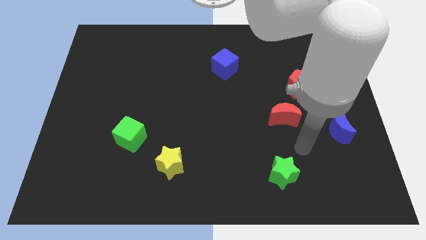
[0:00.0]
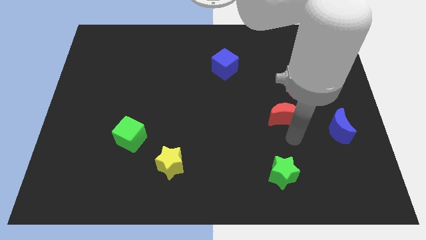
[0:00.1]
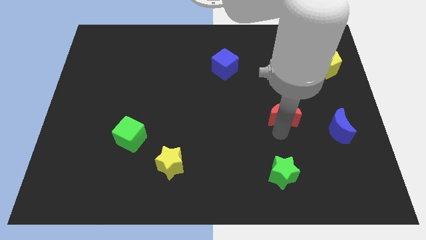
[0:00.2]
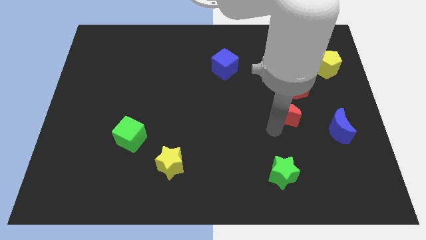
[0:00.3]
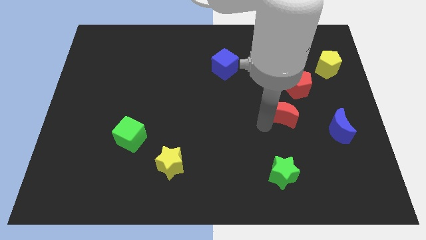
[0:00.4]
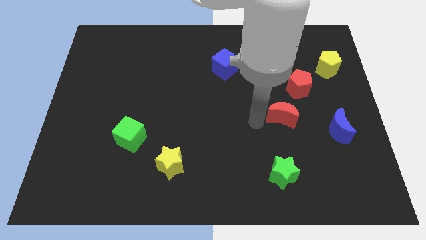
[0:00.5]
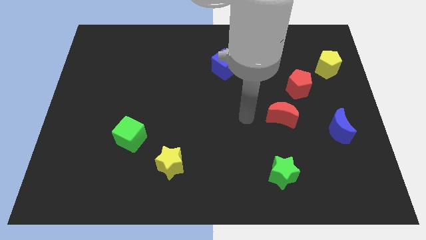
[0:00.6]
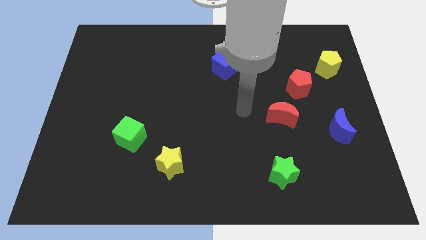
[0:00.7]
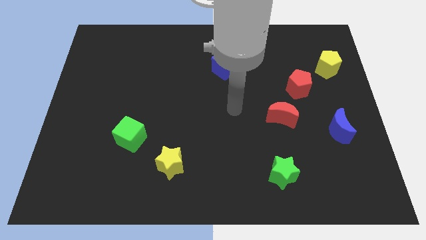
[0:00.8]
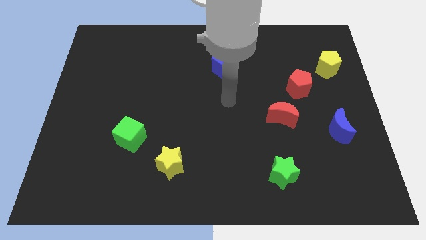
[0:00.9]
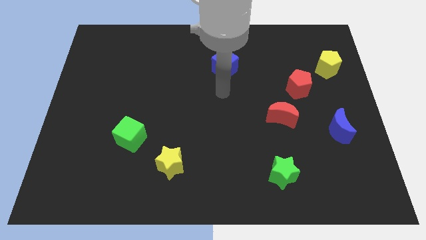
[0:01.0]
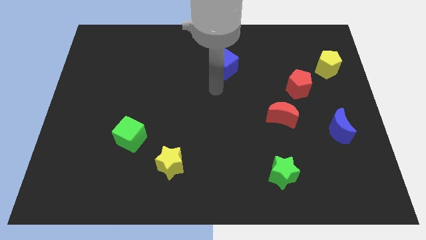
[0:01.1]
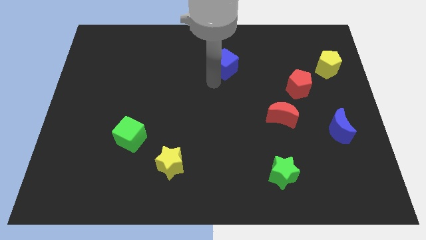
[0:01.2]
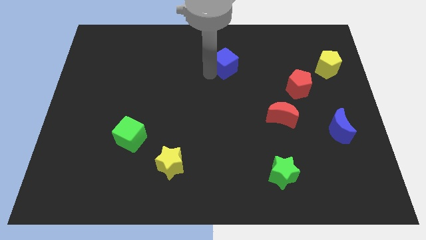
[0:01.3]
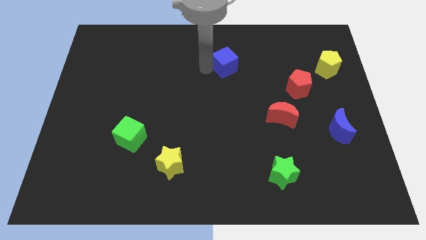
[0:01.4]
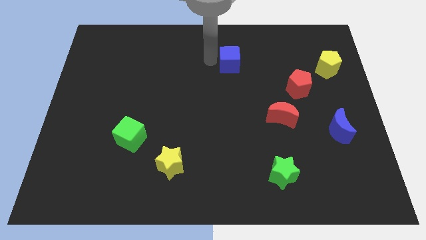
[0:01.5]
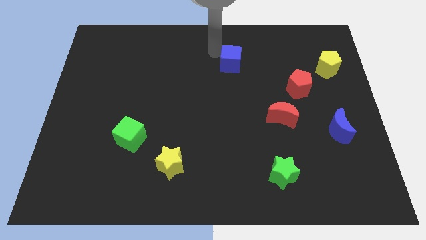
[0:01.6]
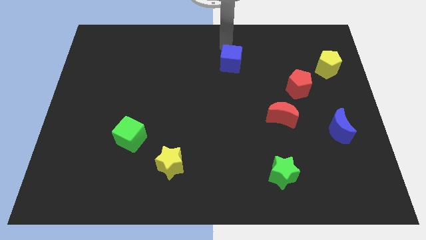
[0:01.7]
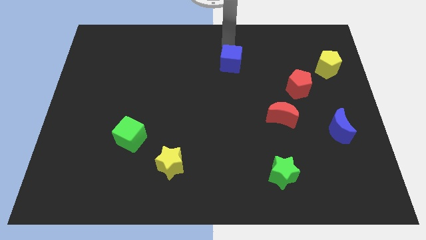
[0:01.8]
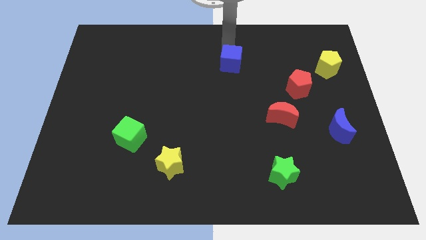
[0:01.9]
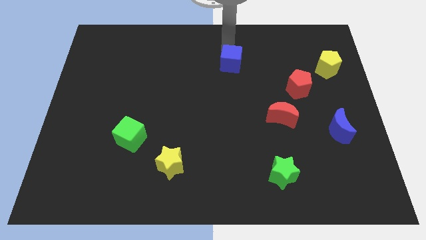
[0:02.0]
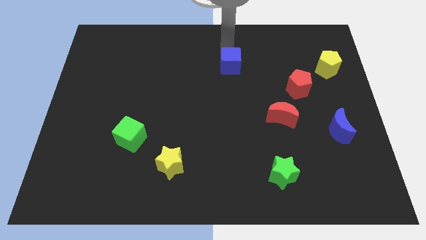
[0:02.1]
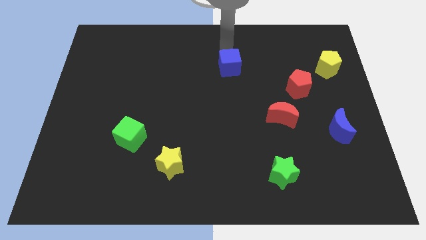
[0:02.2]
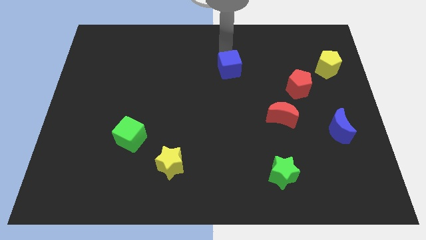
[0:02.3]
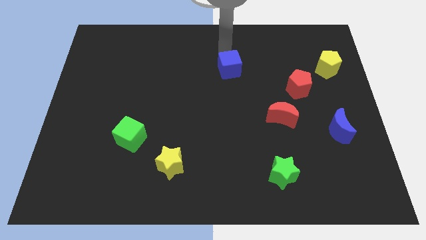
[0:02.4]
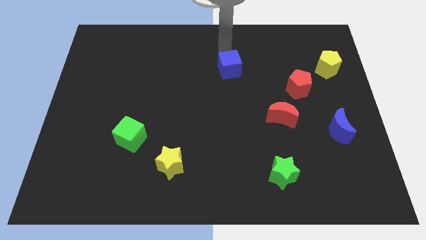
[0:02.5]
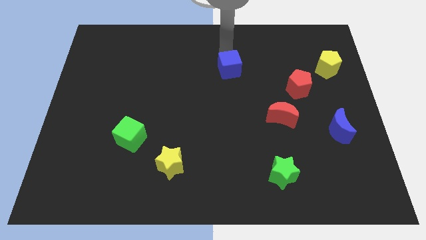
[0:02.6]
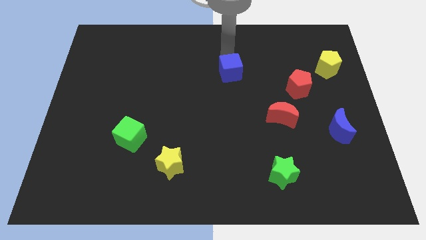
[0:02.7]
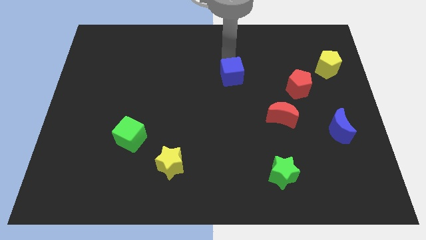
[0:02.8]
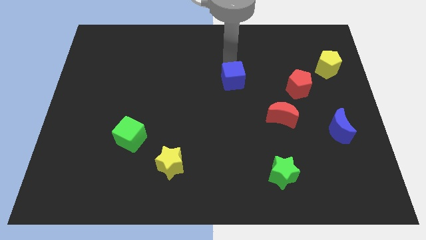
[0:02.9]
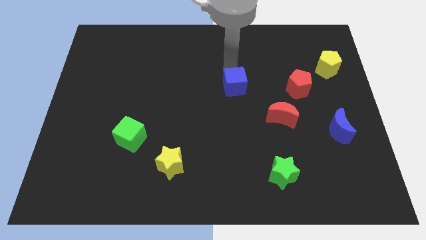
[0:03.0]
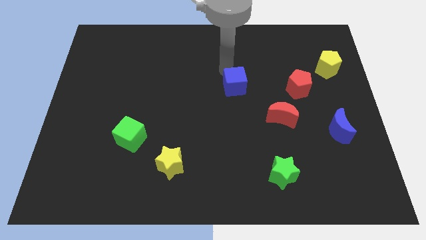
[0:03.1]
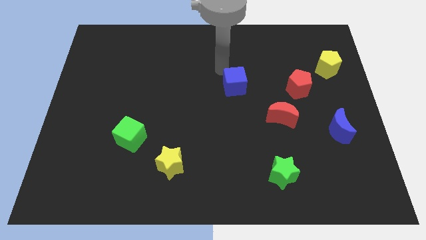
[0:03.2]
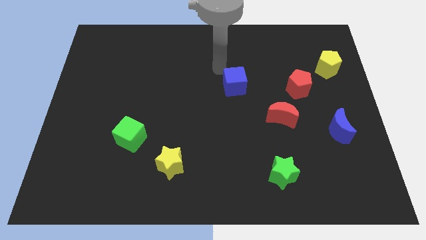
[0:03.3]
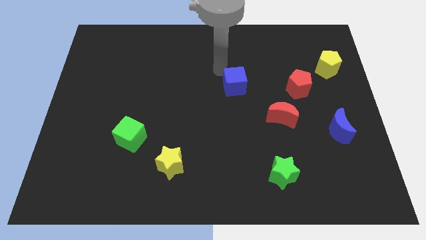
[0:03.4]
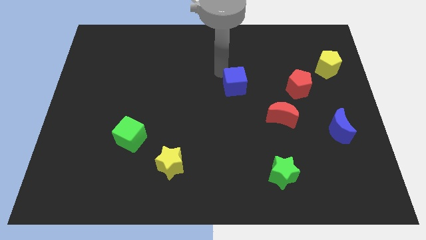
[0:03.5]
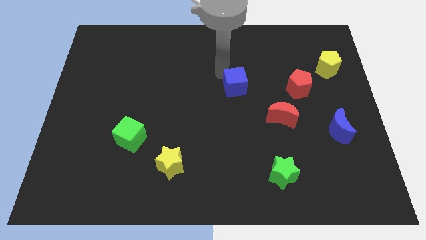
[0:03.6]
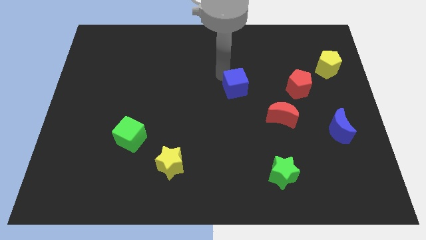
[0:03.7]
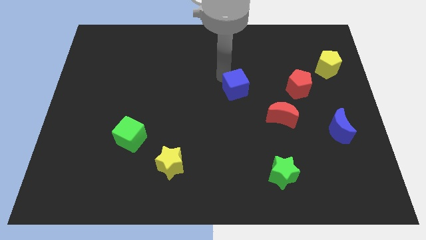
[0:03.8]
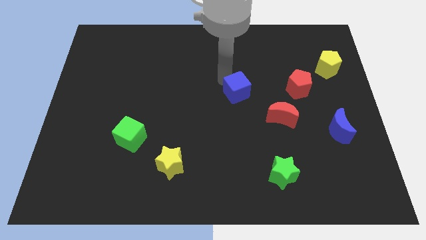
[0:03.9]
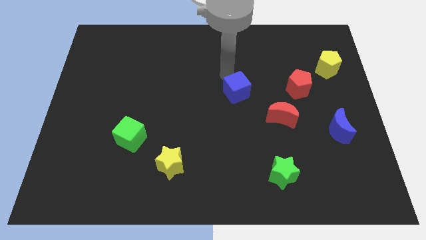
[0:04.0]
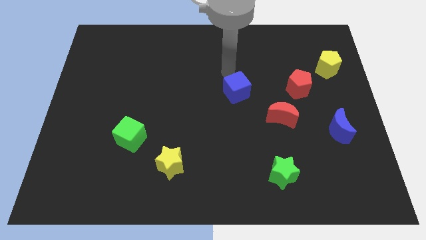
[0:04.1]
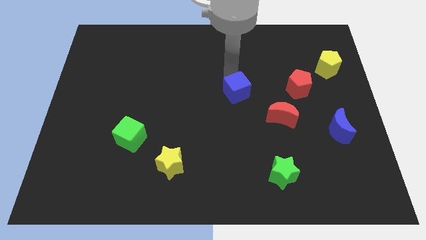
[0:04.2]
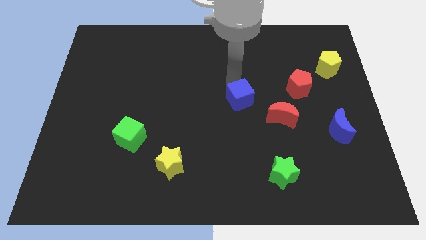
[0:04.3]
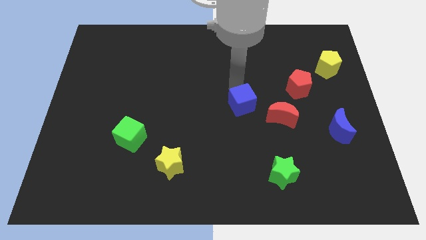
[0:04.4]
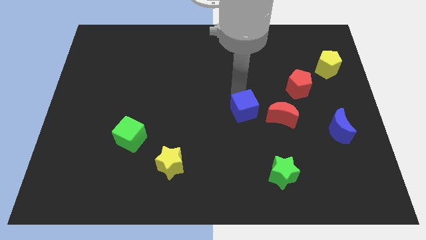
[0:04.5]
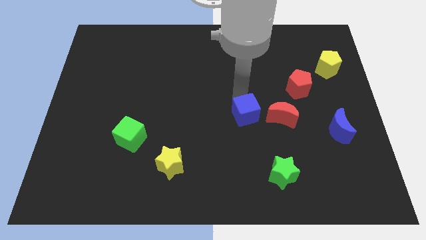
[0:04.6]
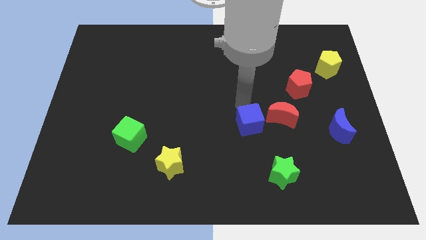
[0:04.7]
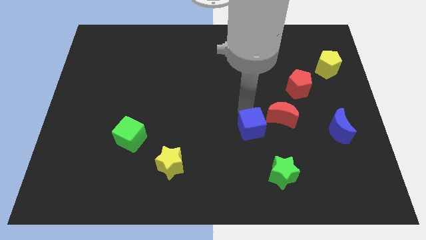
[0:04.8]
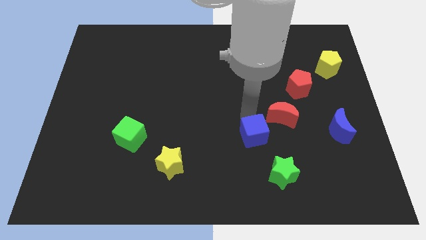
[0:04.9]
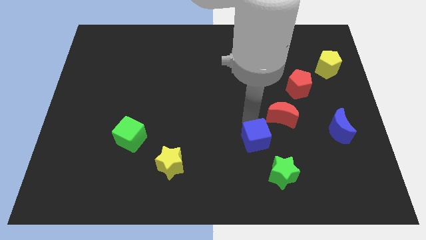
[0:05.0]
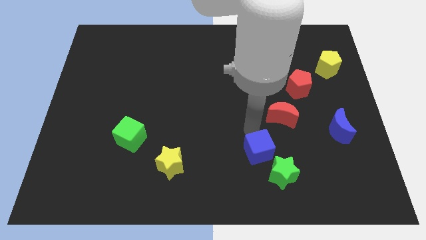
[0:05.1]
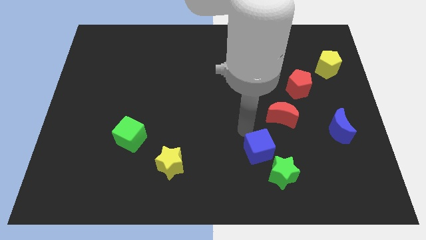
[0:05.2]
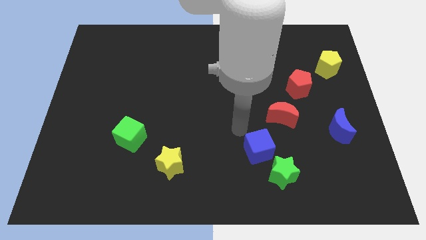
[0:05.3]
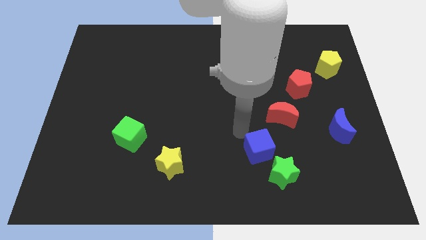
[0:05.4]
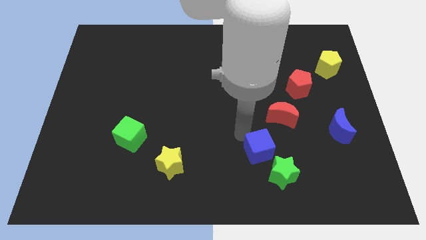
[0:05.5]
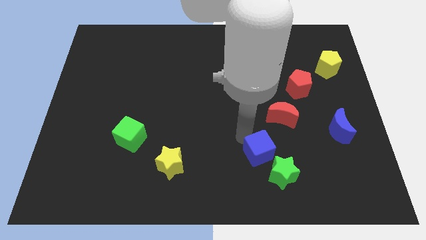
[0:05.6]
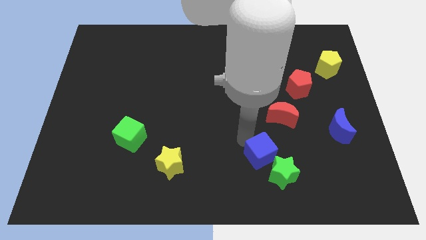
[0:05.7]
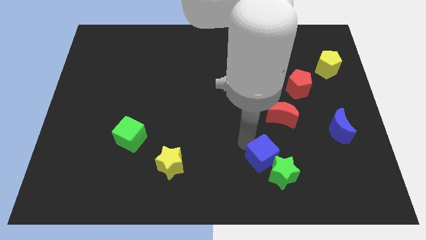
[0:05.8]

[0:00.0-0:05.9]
move the blue cube towards the green star

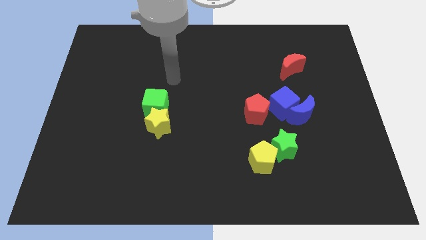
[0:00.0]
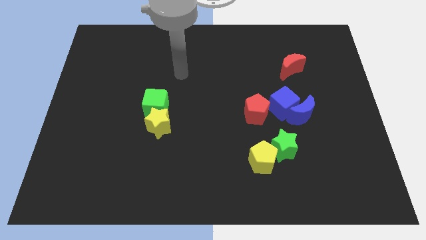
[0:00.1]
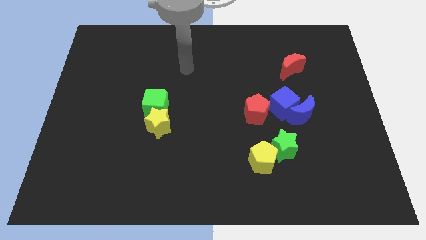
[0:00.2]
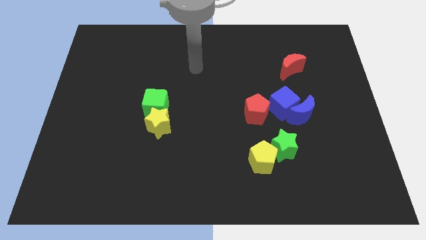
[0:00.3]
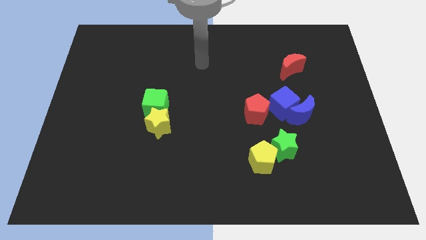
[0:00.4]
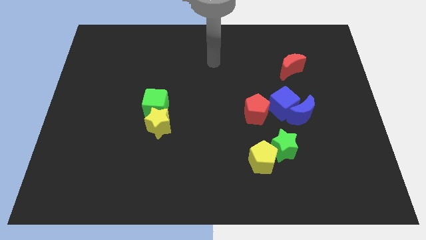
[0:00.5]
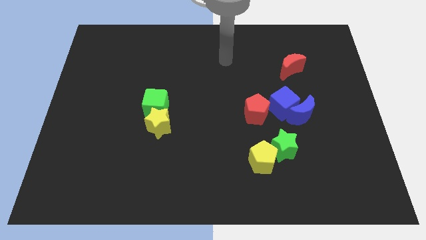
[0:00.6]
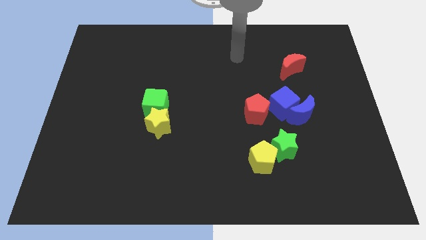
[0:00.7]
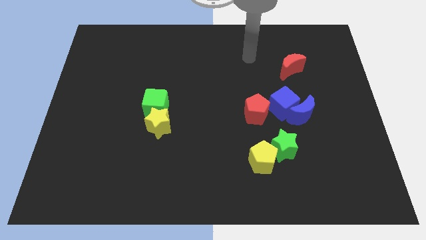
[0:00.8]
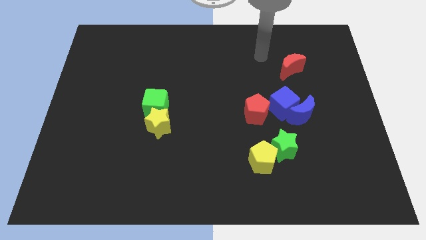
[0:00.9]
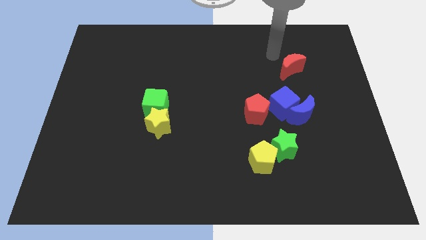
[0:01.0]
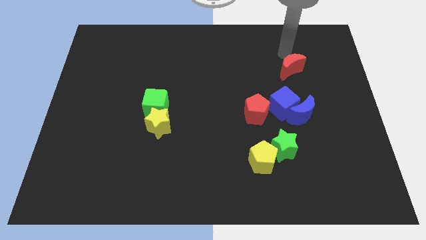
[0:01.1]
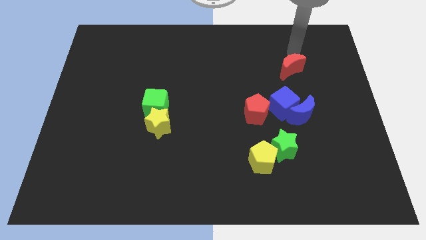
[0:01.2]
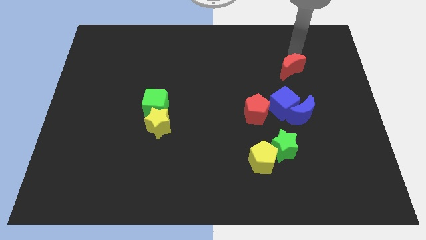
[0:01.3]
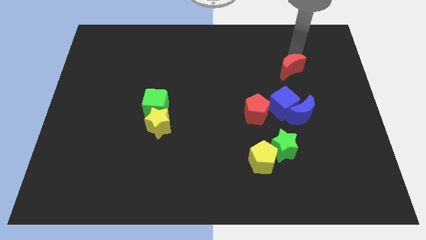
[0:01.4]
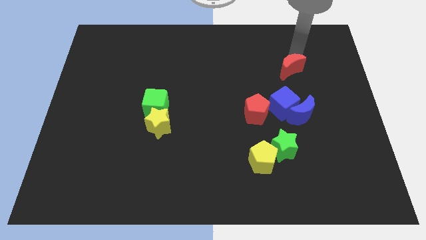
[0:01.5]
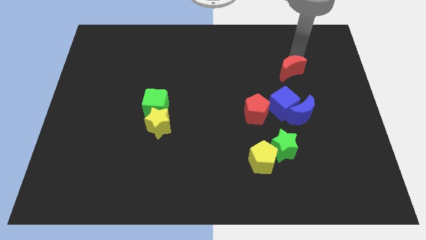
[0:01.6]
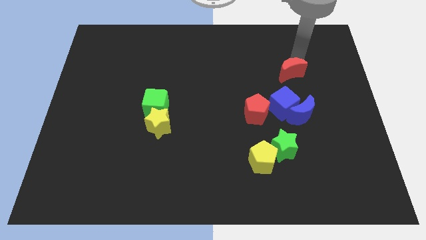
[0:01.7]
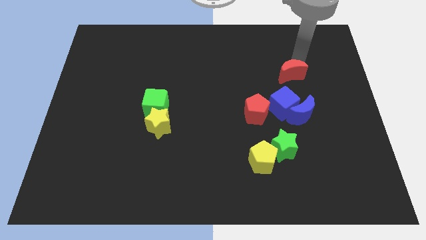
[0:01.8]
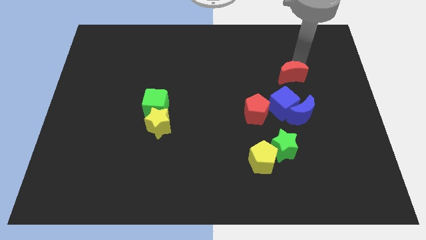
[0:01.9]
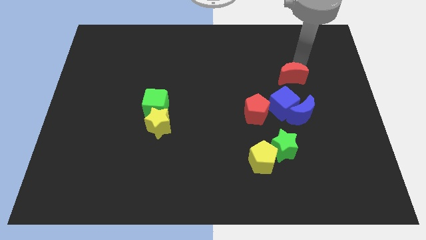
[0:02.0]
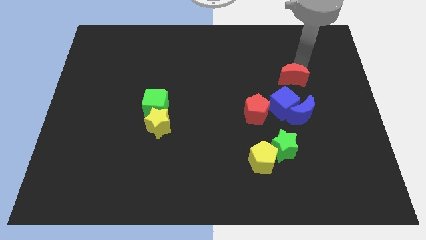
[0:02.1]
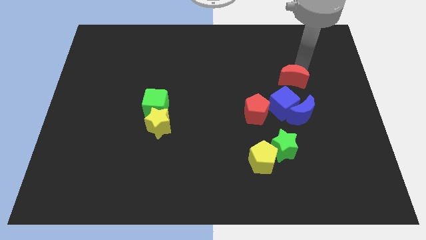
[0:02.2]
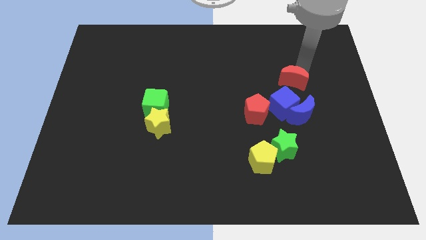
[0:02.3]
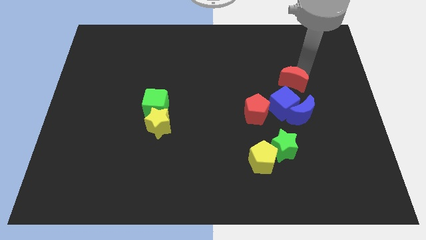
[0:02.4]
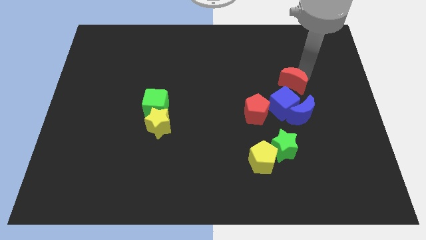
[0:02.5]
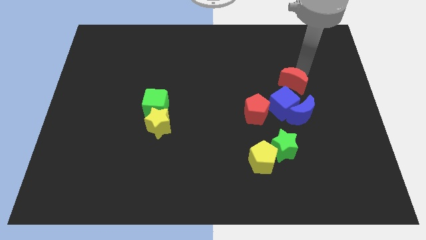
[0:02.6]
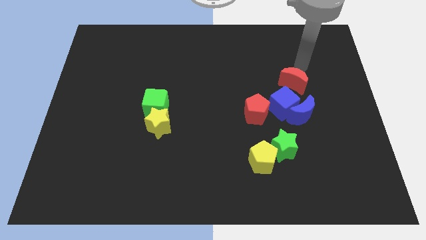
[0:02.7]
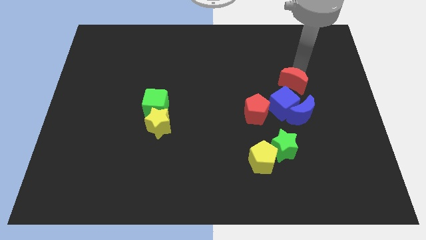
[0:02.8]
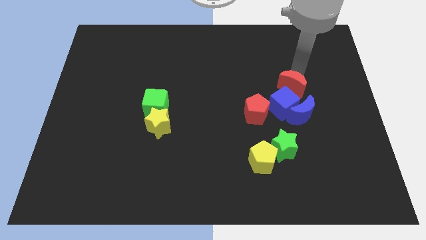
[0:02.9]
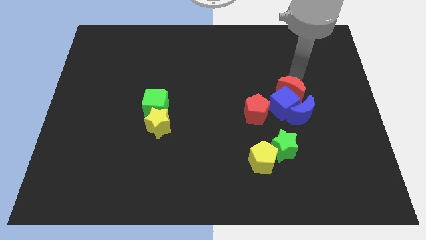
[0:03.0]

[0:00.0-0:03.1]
slide the red moon towards the blue cube
